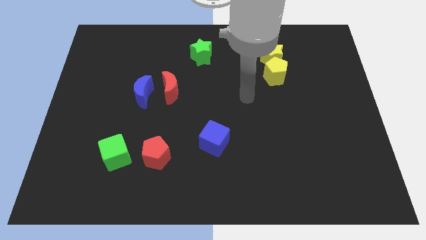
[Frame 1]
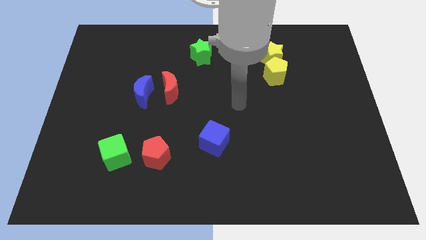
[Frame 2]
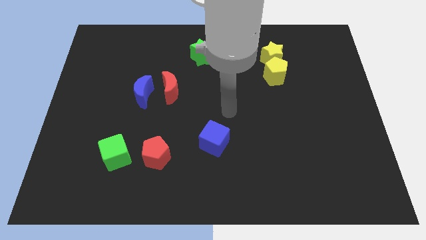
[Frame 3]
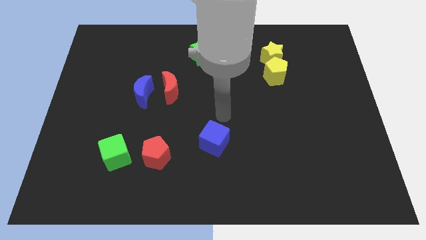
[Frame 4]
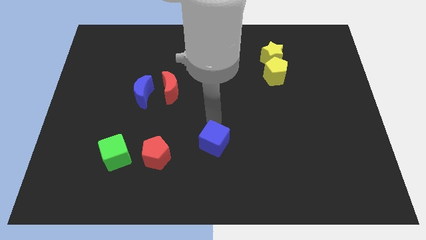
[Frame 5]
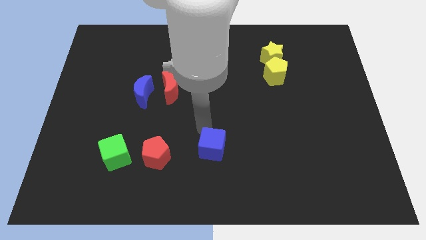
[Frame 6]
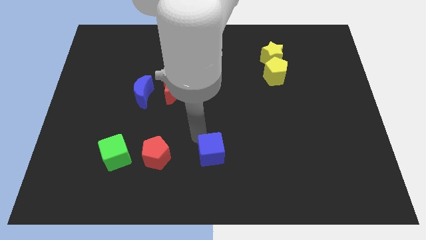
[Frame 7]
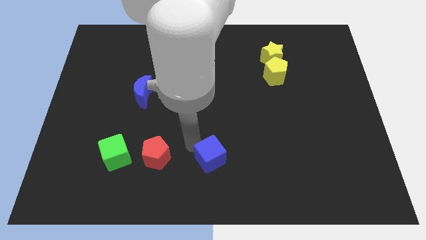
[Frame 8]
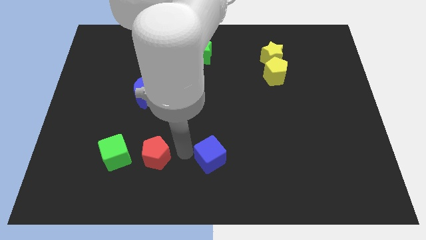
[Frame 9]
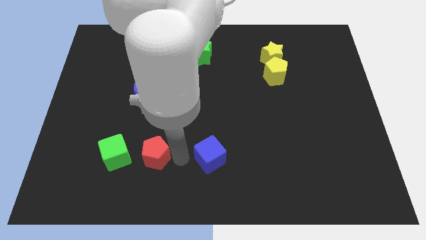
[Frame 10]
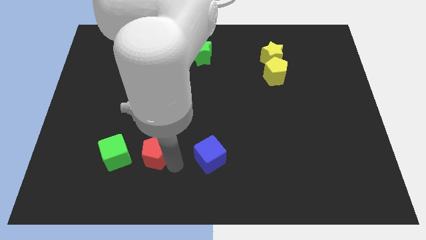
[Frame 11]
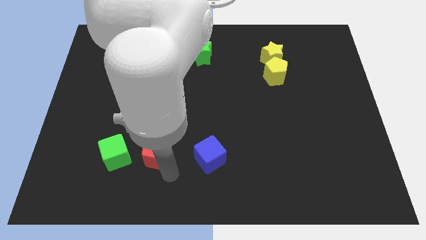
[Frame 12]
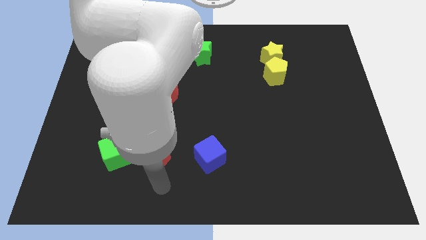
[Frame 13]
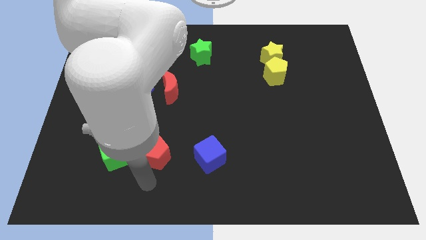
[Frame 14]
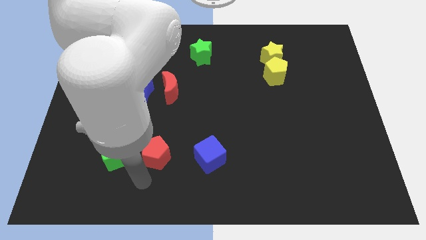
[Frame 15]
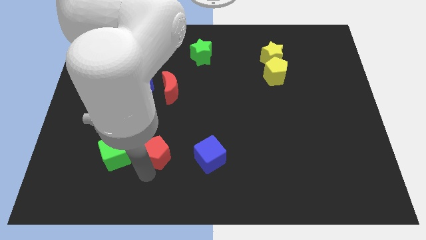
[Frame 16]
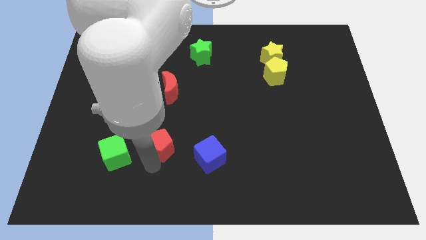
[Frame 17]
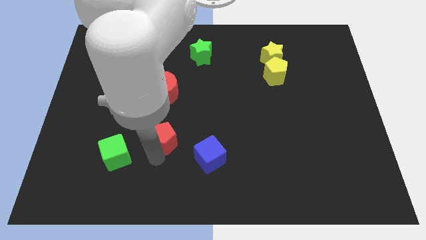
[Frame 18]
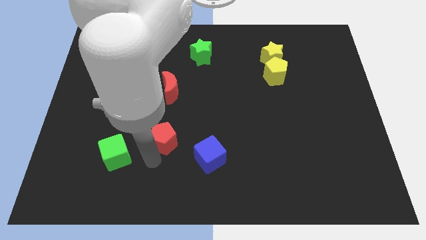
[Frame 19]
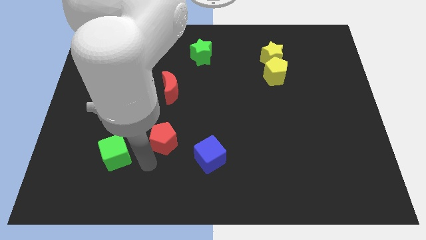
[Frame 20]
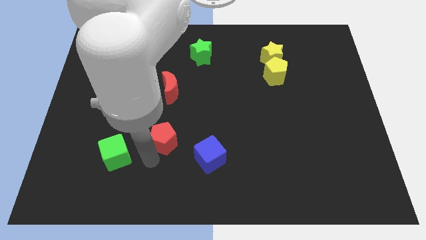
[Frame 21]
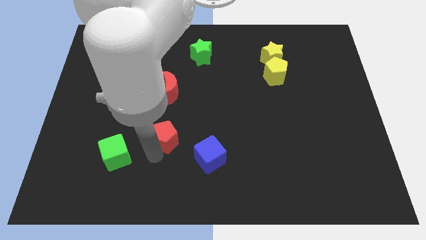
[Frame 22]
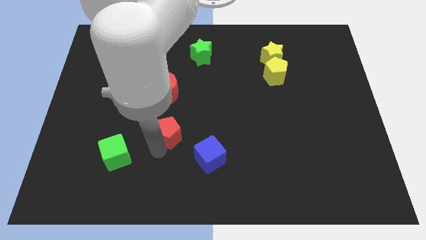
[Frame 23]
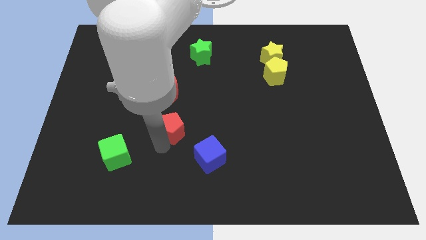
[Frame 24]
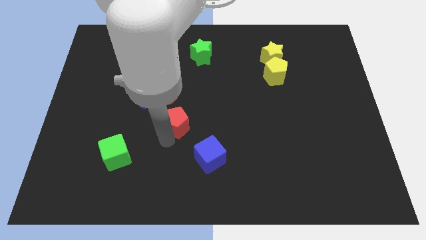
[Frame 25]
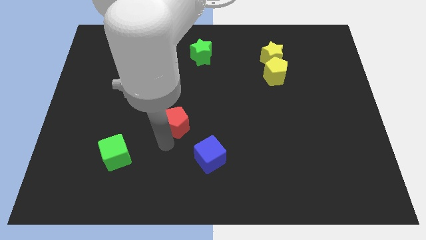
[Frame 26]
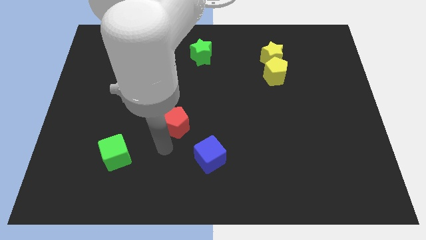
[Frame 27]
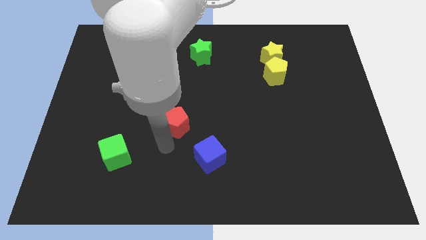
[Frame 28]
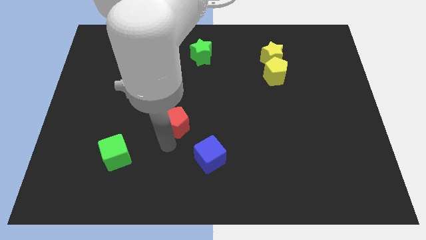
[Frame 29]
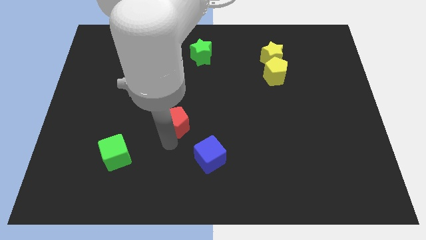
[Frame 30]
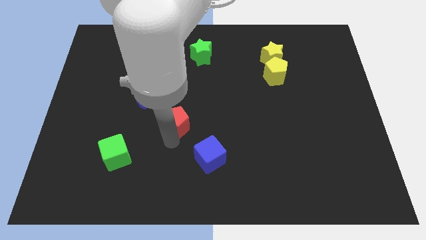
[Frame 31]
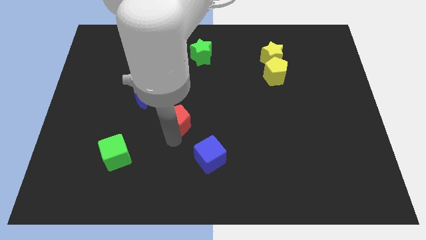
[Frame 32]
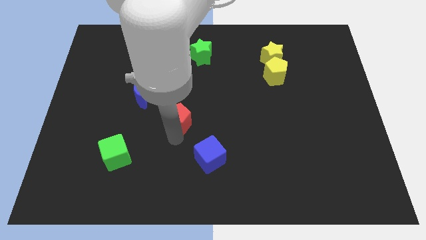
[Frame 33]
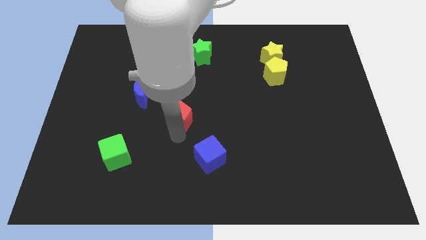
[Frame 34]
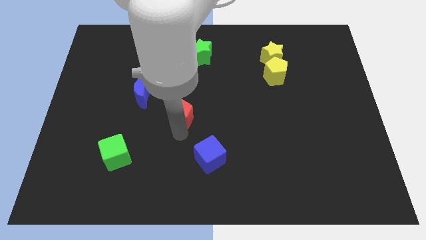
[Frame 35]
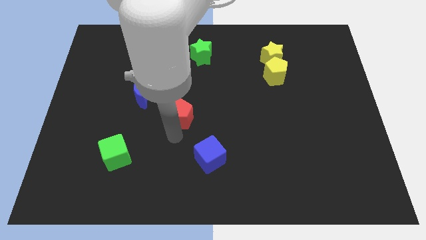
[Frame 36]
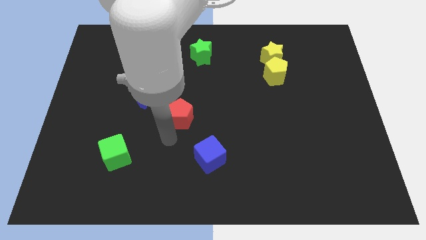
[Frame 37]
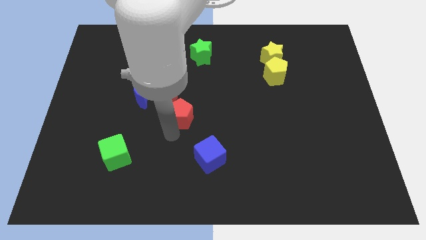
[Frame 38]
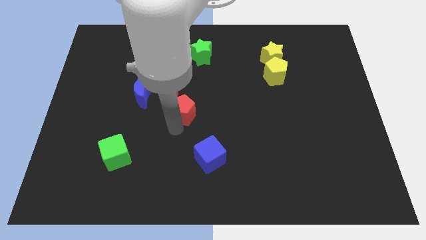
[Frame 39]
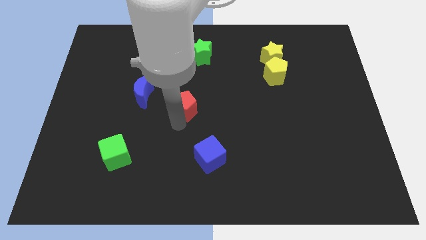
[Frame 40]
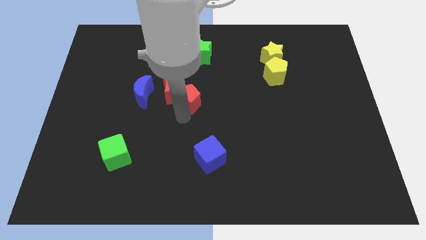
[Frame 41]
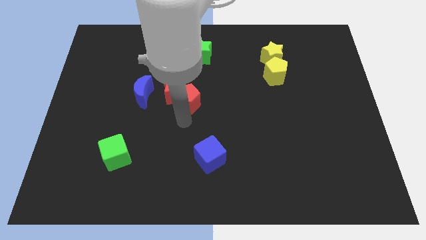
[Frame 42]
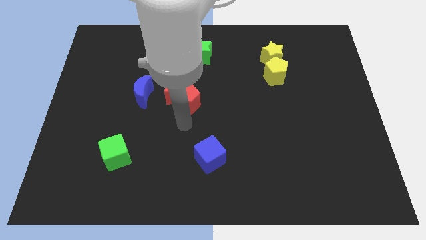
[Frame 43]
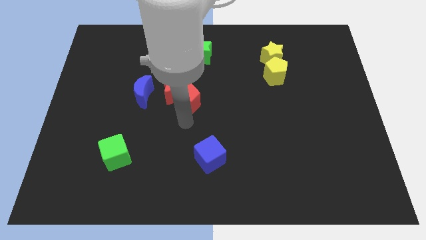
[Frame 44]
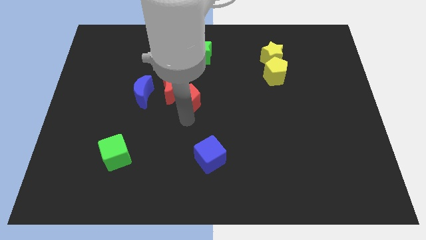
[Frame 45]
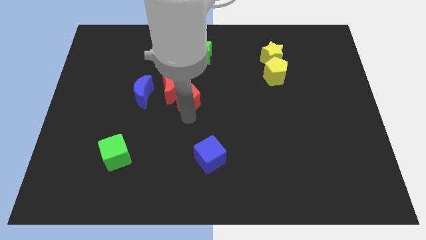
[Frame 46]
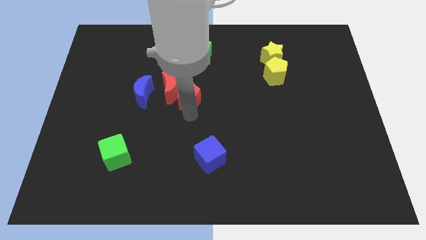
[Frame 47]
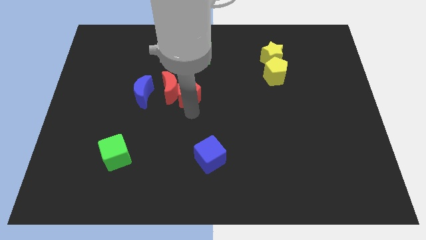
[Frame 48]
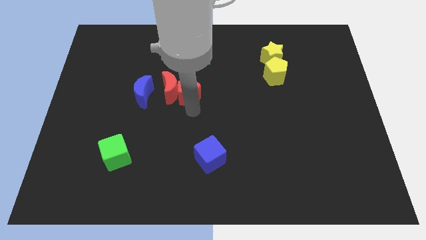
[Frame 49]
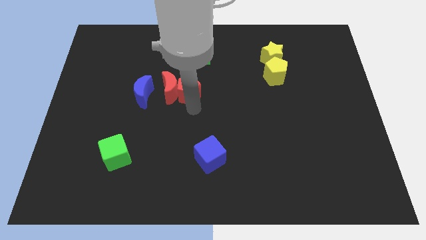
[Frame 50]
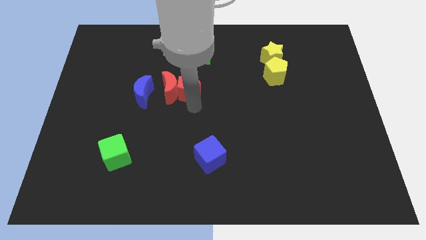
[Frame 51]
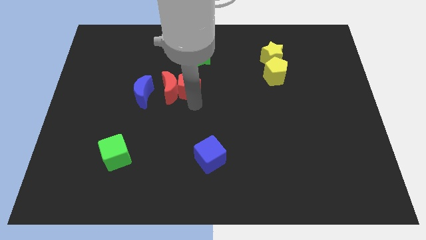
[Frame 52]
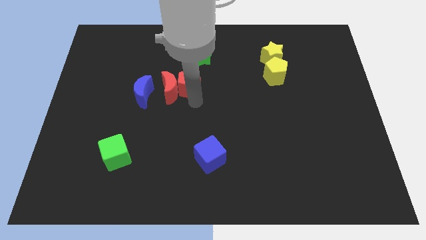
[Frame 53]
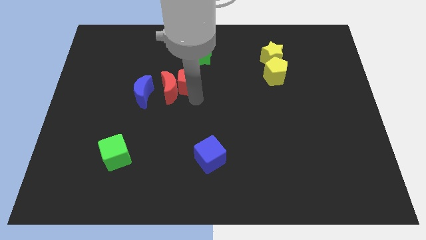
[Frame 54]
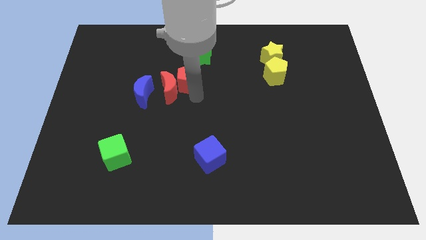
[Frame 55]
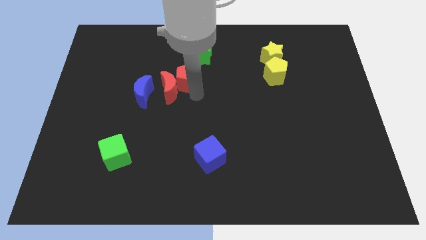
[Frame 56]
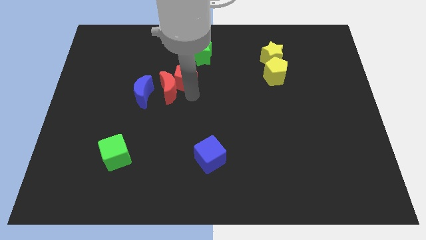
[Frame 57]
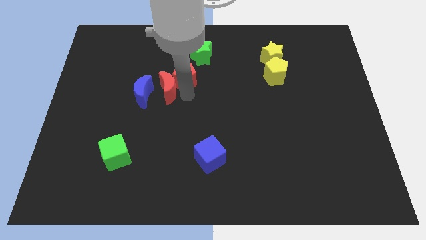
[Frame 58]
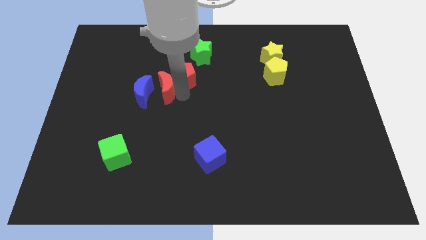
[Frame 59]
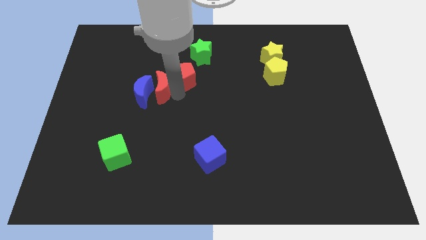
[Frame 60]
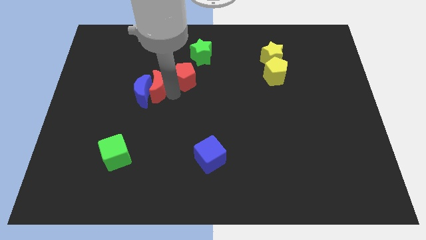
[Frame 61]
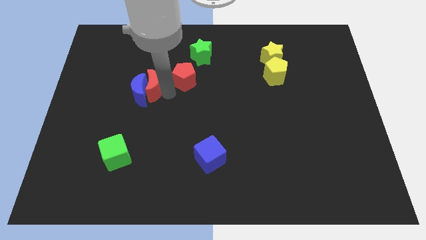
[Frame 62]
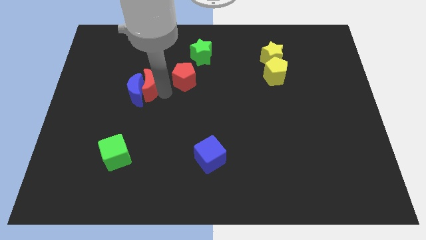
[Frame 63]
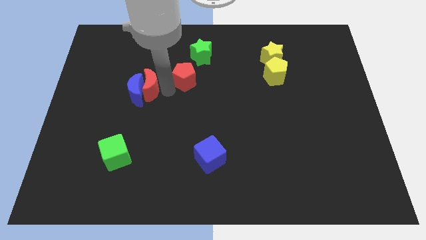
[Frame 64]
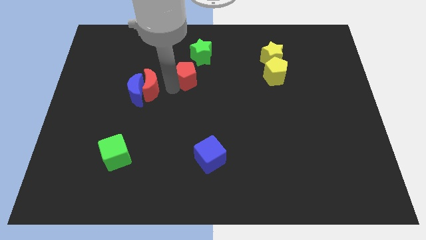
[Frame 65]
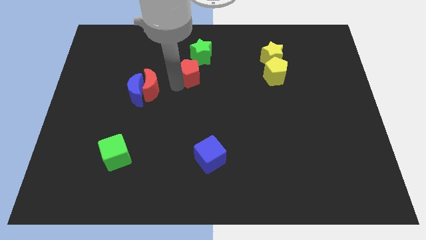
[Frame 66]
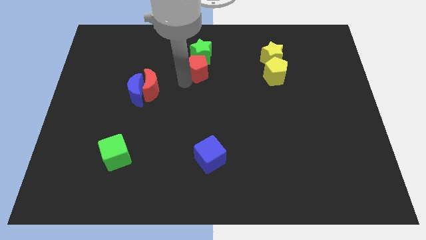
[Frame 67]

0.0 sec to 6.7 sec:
put the red pentagon towards the green star
